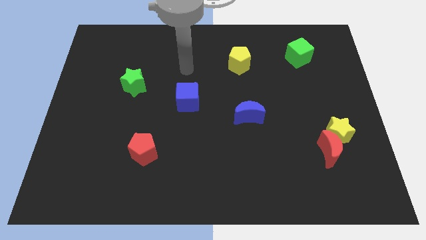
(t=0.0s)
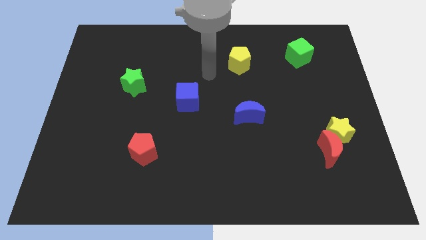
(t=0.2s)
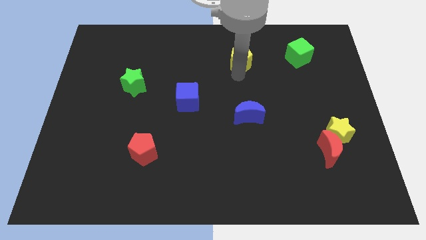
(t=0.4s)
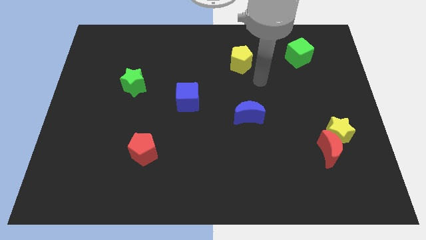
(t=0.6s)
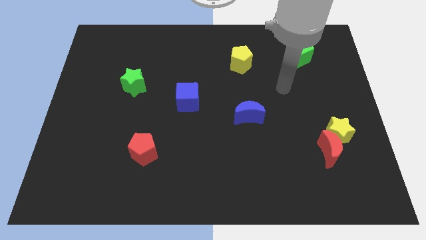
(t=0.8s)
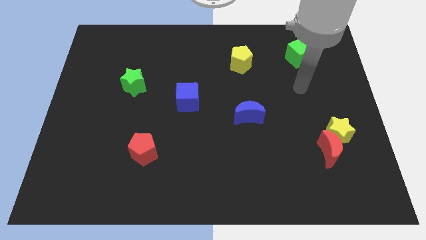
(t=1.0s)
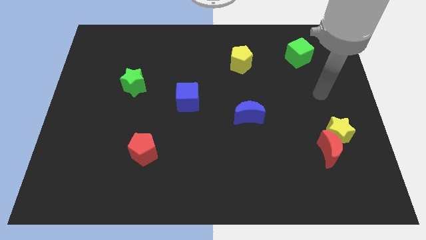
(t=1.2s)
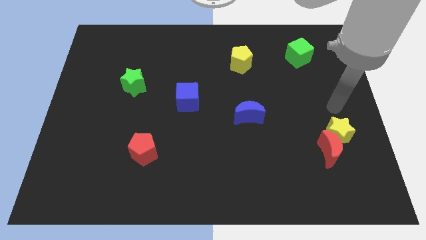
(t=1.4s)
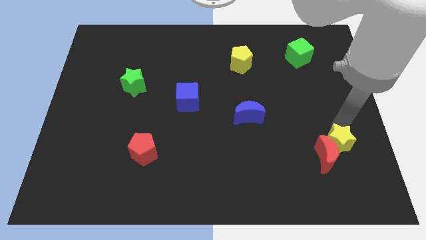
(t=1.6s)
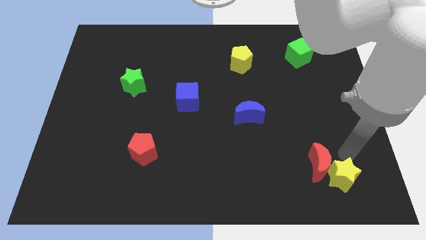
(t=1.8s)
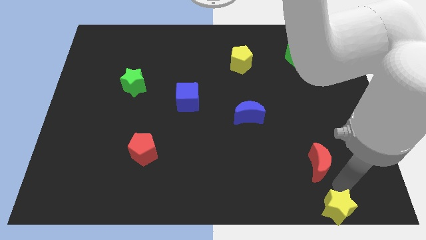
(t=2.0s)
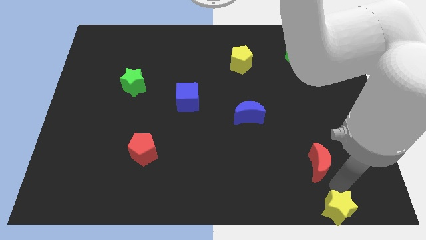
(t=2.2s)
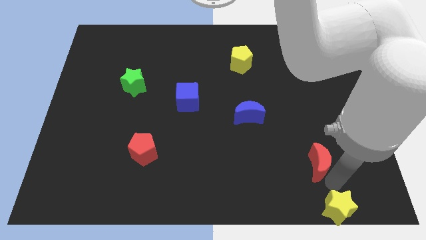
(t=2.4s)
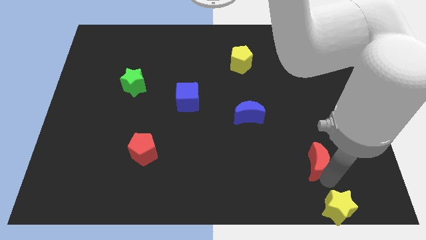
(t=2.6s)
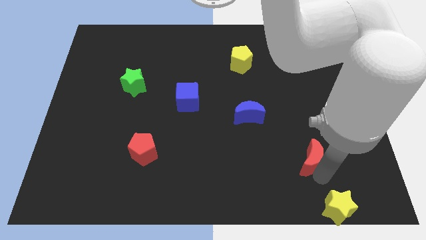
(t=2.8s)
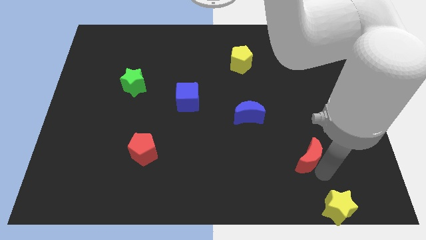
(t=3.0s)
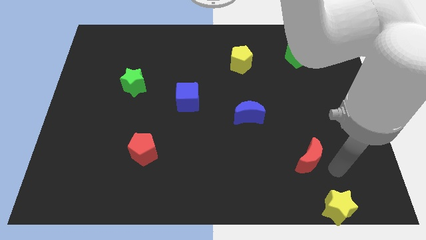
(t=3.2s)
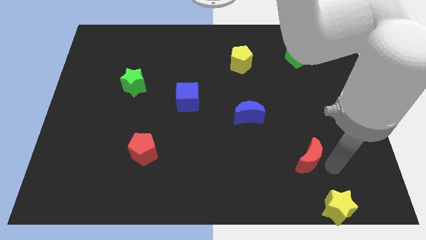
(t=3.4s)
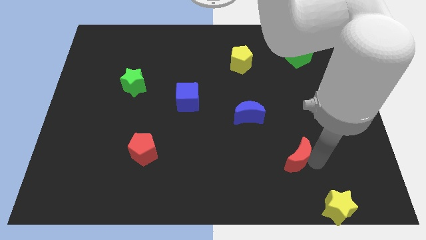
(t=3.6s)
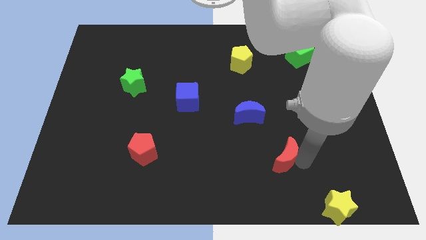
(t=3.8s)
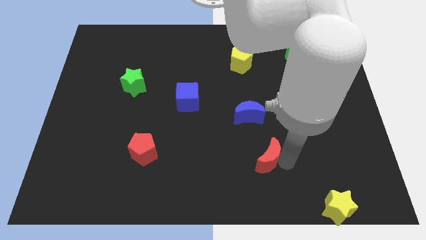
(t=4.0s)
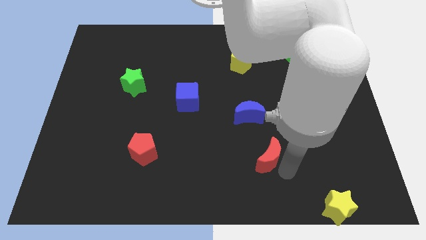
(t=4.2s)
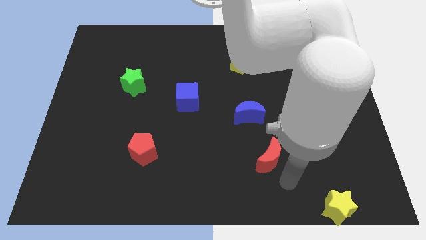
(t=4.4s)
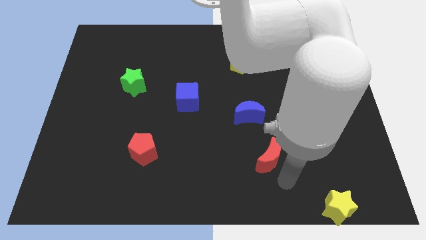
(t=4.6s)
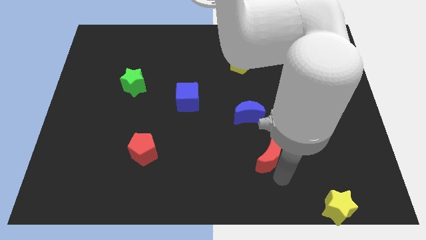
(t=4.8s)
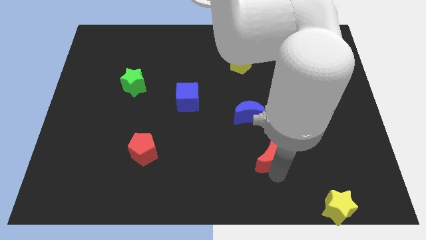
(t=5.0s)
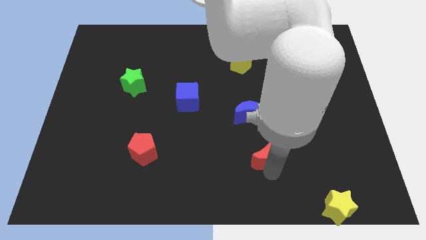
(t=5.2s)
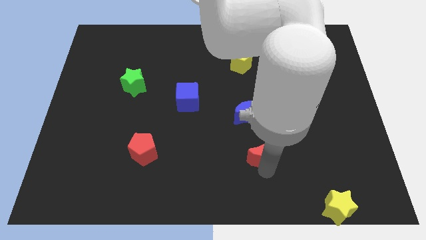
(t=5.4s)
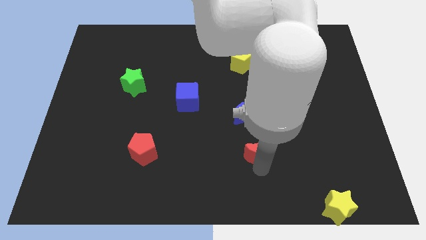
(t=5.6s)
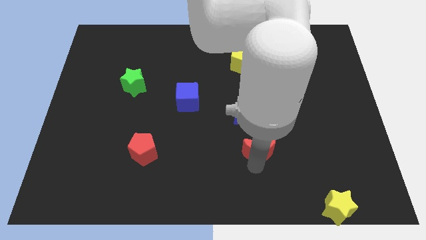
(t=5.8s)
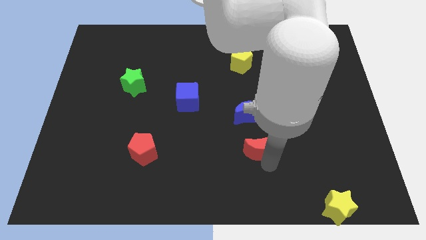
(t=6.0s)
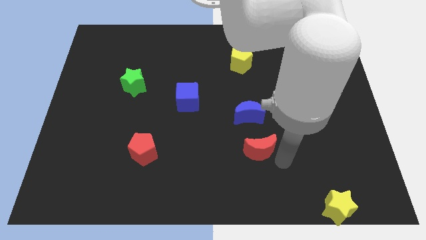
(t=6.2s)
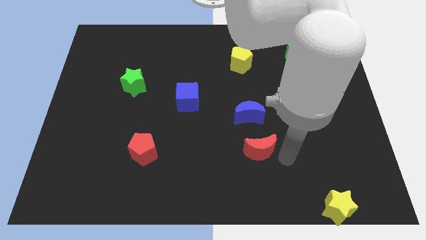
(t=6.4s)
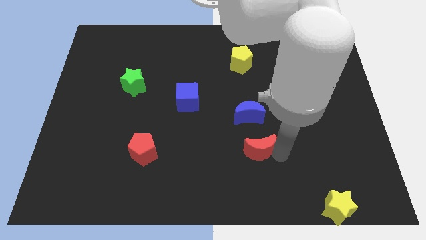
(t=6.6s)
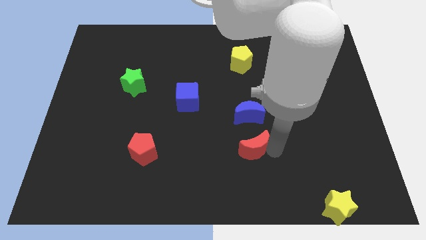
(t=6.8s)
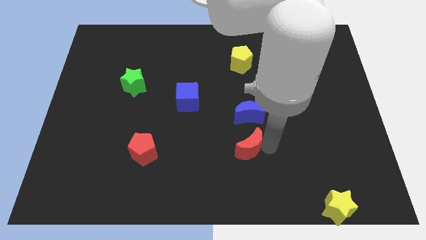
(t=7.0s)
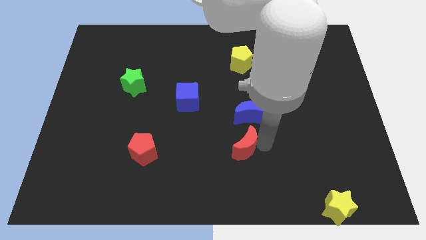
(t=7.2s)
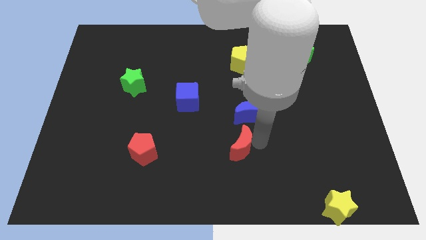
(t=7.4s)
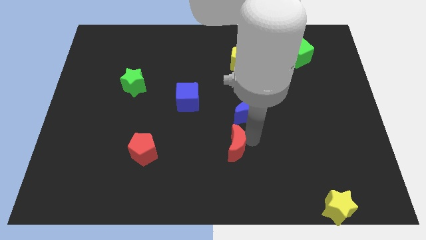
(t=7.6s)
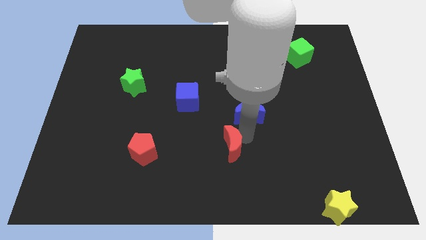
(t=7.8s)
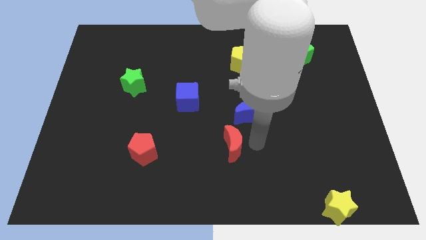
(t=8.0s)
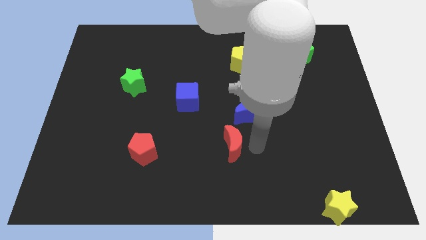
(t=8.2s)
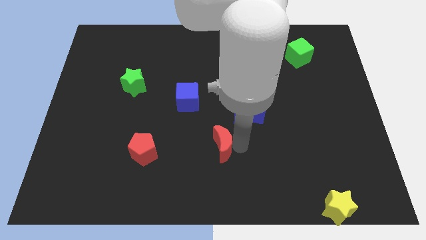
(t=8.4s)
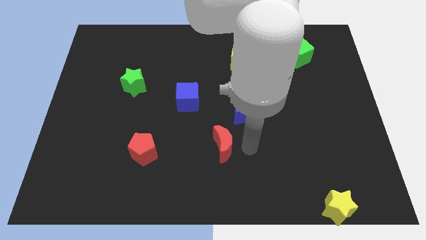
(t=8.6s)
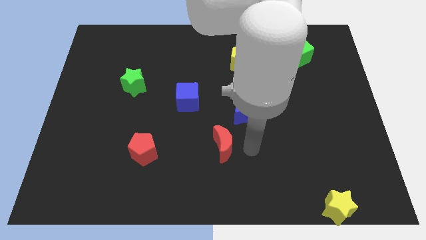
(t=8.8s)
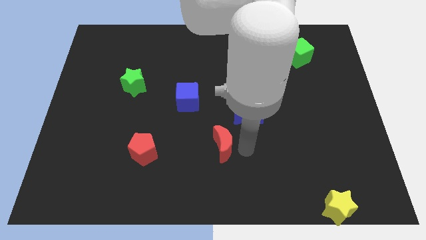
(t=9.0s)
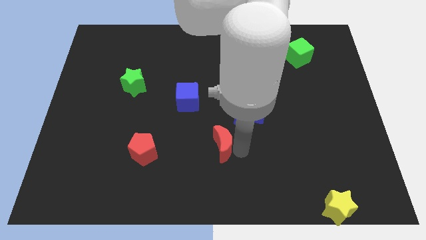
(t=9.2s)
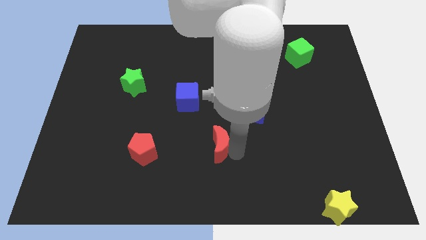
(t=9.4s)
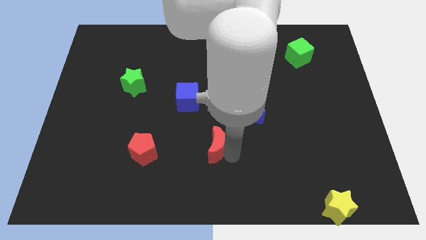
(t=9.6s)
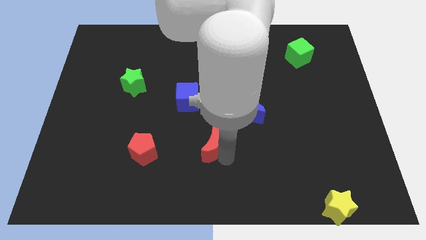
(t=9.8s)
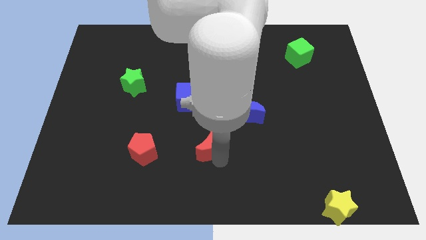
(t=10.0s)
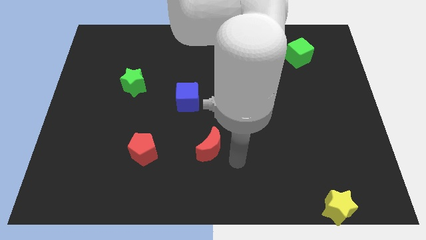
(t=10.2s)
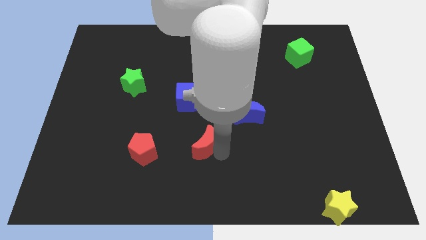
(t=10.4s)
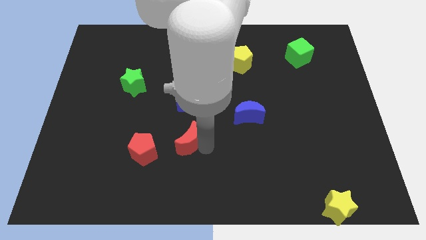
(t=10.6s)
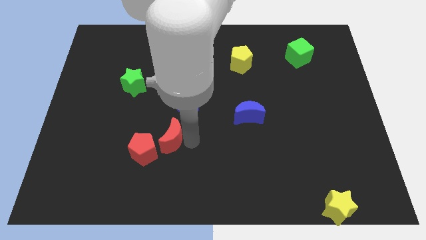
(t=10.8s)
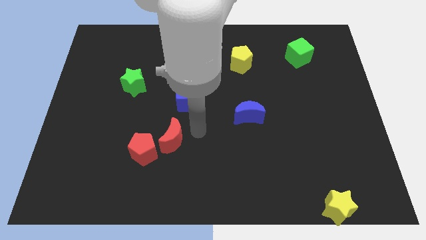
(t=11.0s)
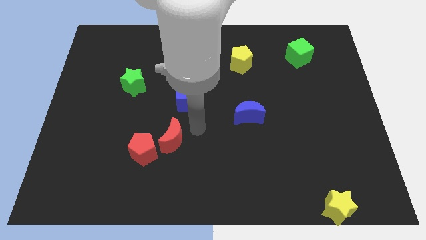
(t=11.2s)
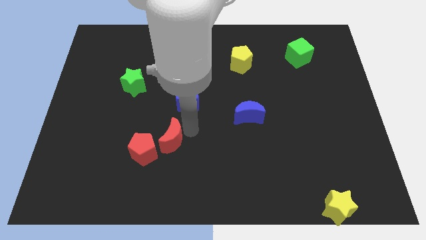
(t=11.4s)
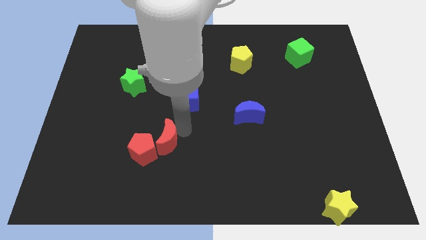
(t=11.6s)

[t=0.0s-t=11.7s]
push the red moon next to the red pentagon

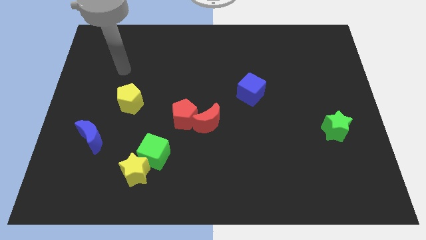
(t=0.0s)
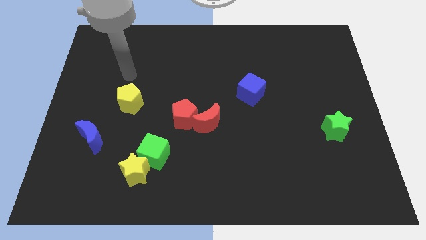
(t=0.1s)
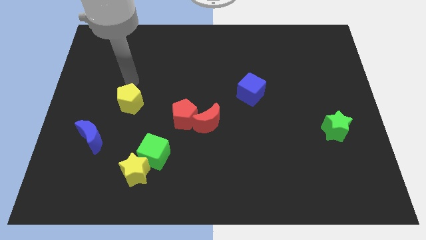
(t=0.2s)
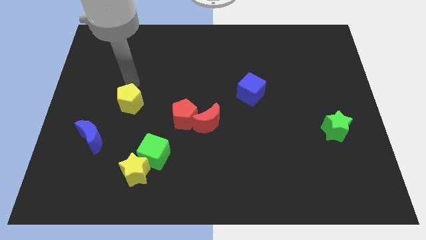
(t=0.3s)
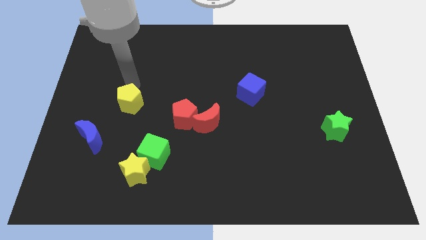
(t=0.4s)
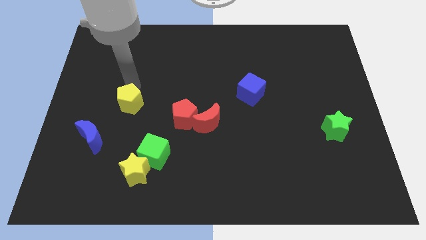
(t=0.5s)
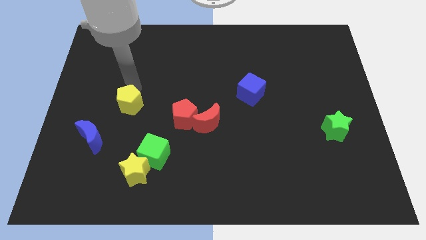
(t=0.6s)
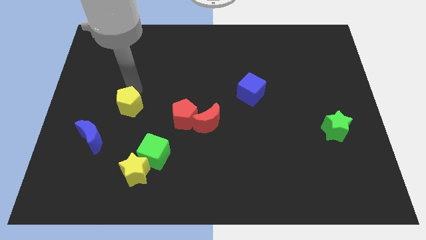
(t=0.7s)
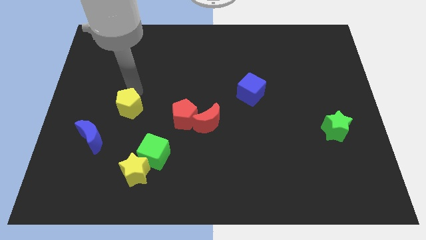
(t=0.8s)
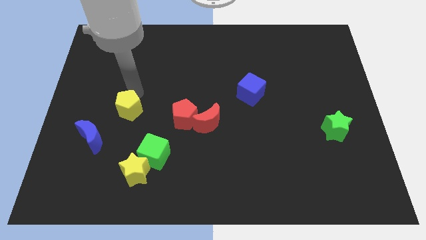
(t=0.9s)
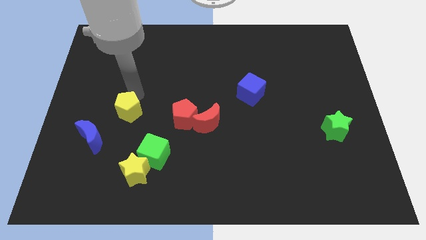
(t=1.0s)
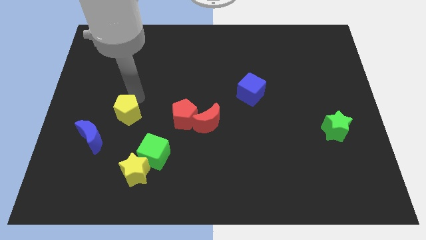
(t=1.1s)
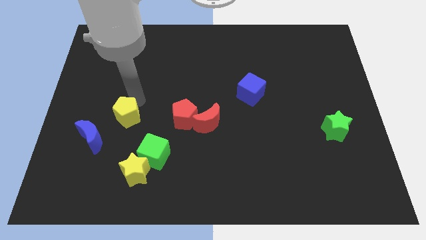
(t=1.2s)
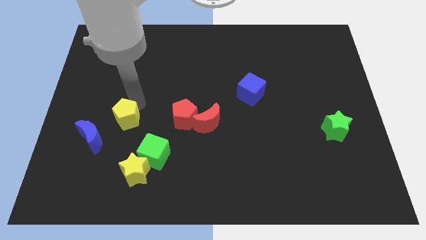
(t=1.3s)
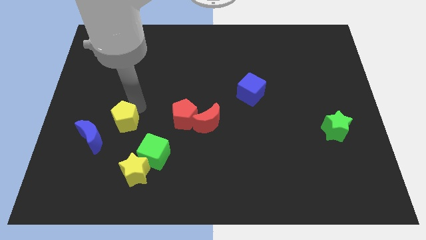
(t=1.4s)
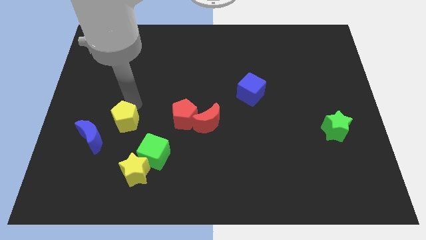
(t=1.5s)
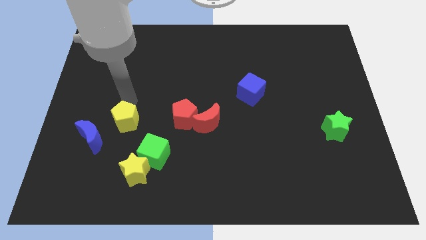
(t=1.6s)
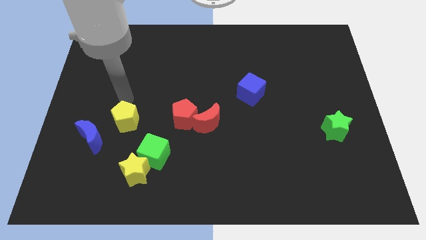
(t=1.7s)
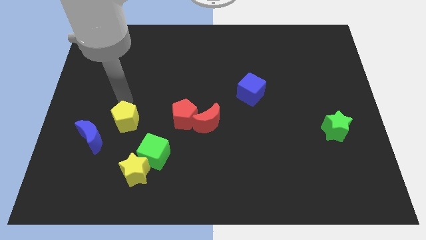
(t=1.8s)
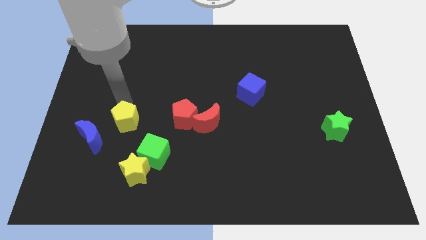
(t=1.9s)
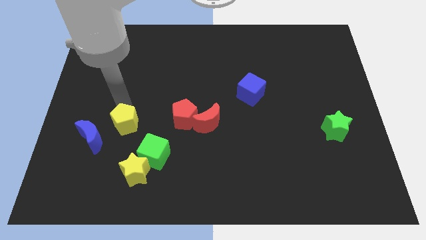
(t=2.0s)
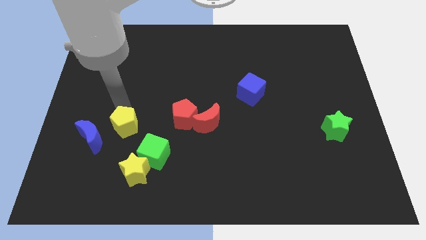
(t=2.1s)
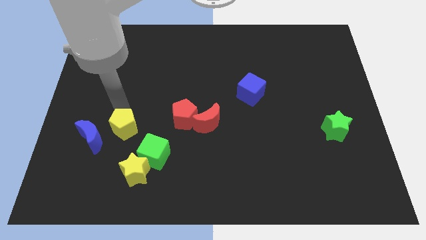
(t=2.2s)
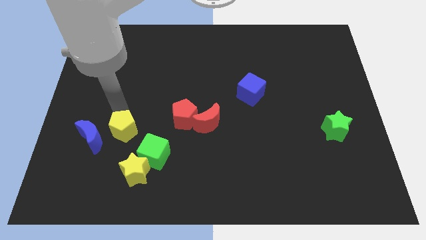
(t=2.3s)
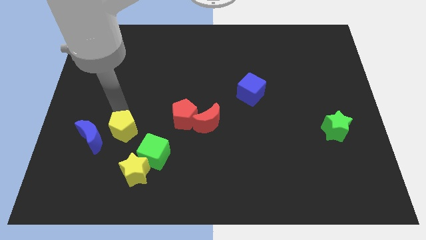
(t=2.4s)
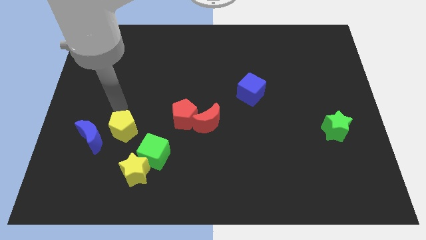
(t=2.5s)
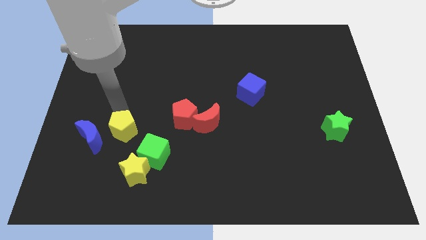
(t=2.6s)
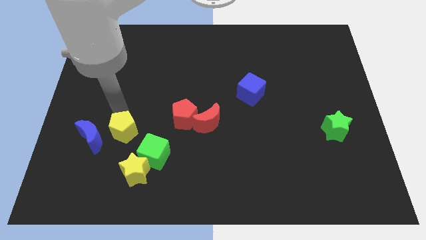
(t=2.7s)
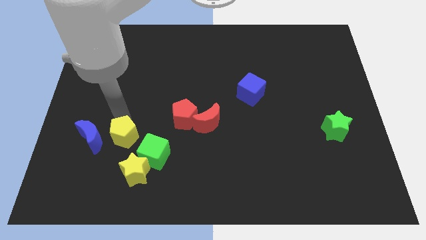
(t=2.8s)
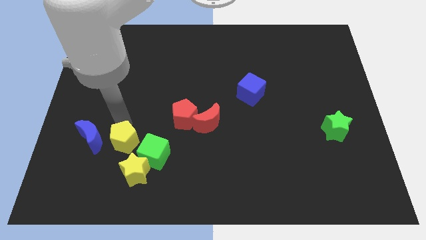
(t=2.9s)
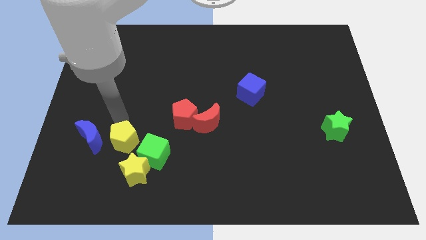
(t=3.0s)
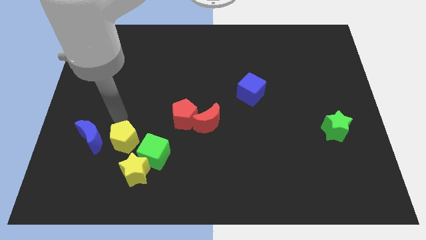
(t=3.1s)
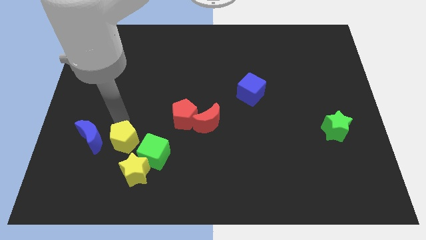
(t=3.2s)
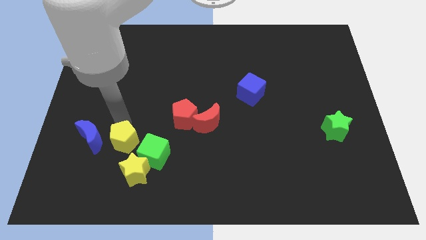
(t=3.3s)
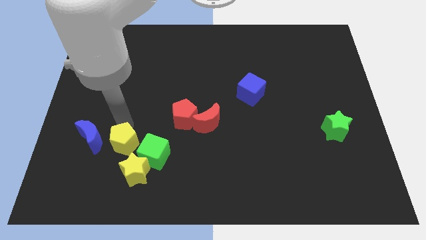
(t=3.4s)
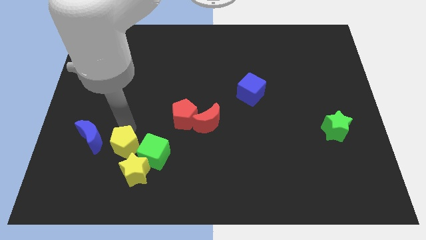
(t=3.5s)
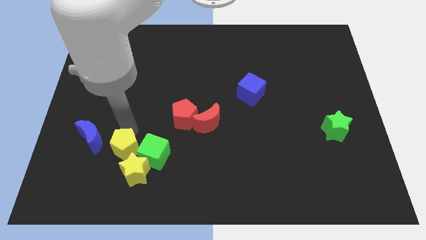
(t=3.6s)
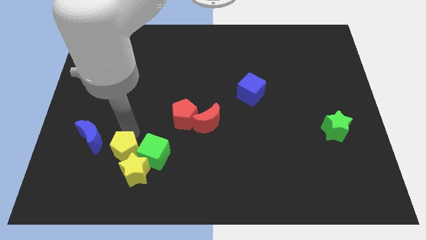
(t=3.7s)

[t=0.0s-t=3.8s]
move the yellow pentagon towards the yellow star
